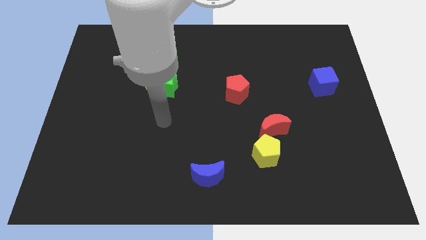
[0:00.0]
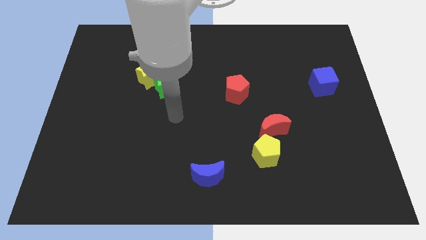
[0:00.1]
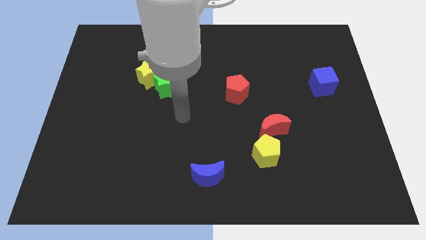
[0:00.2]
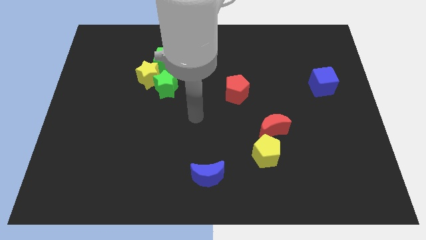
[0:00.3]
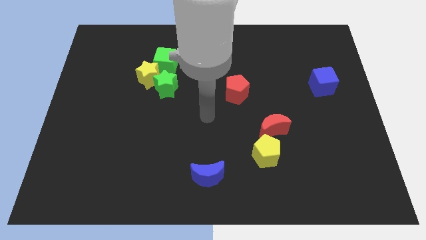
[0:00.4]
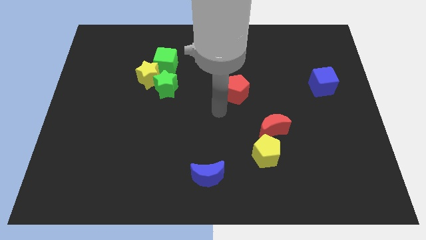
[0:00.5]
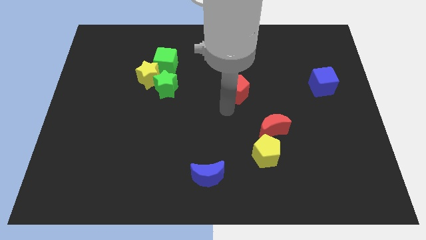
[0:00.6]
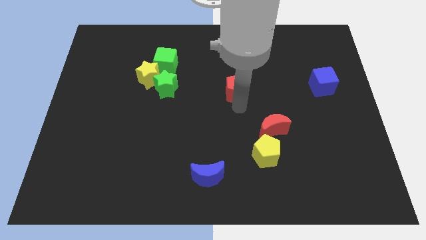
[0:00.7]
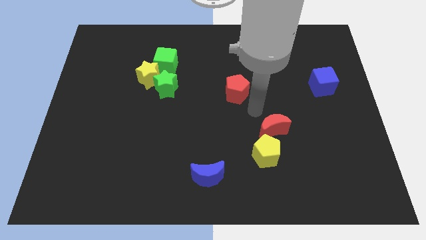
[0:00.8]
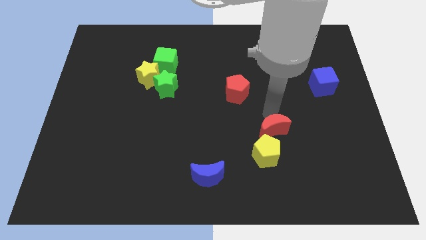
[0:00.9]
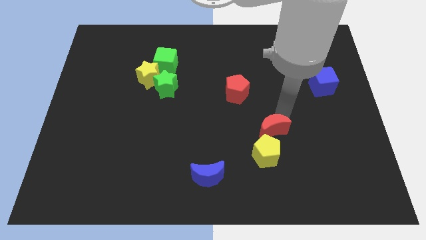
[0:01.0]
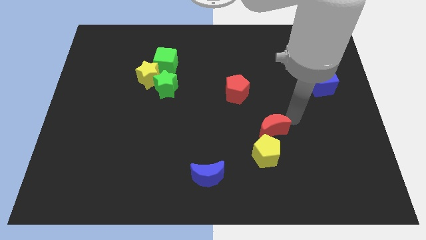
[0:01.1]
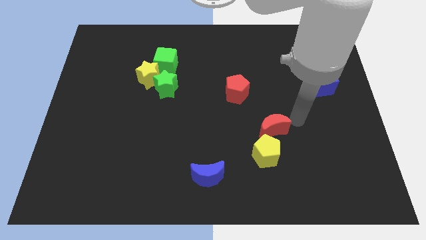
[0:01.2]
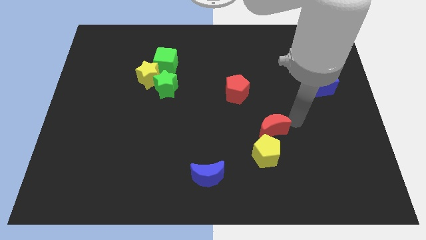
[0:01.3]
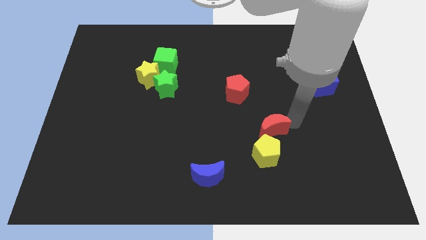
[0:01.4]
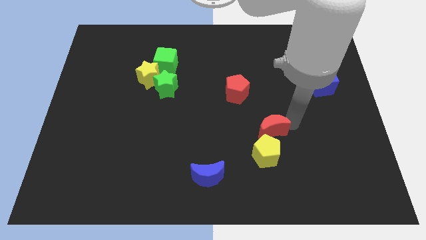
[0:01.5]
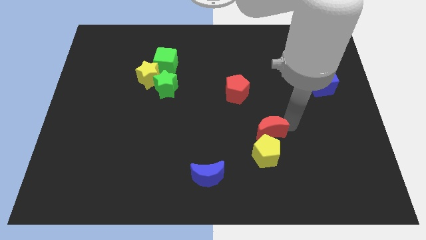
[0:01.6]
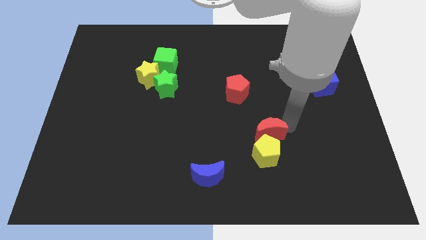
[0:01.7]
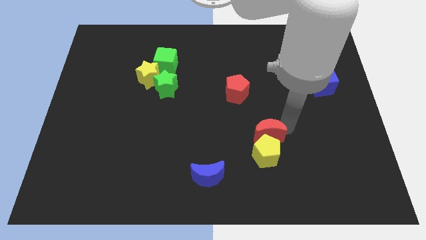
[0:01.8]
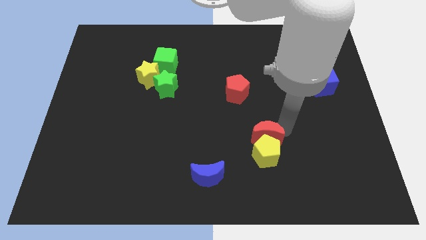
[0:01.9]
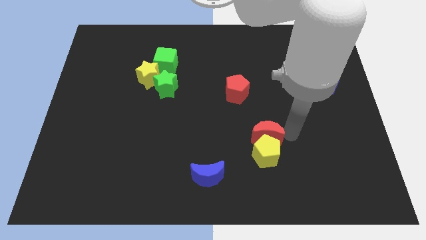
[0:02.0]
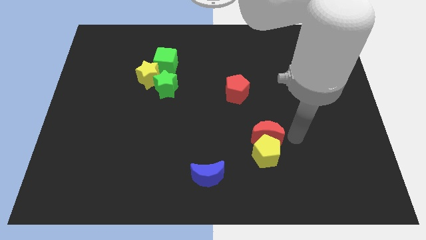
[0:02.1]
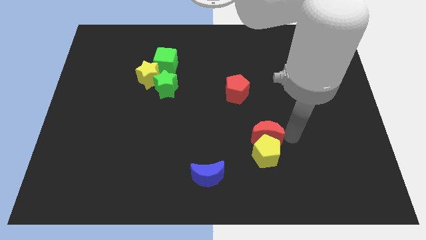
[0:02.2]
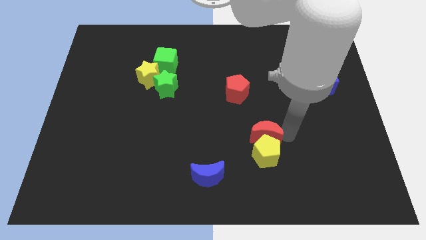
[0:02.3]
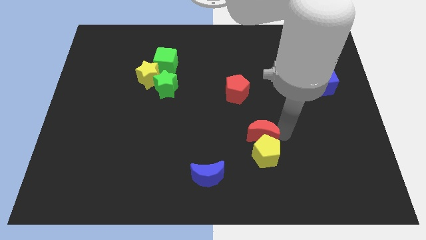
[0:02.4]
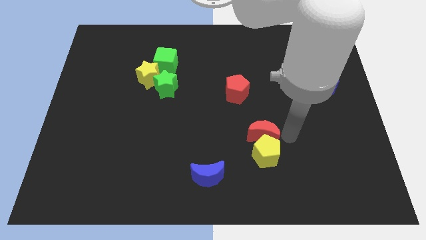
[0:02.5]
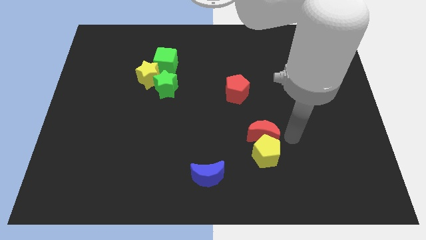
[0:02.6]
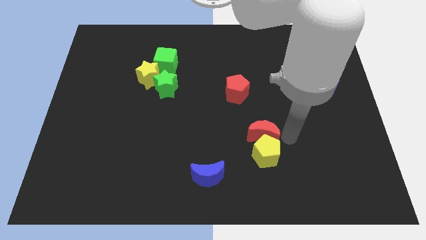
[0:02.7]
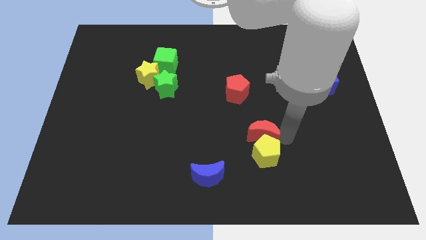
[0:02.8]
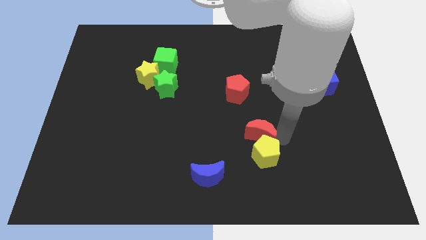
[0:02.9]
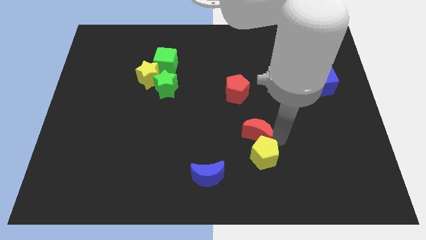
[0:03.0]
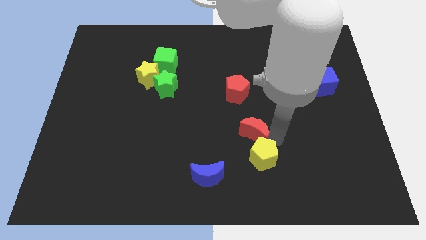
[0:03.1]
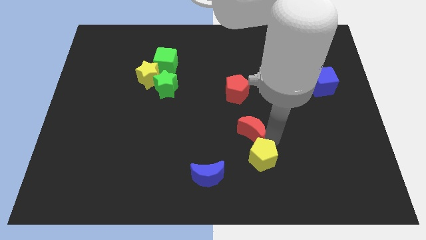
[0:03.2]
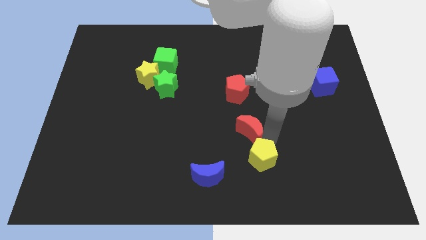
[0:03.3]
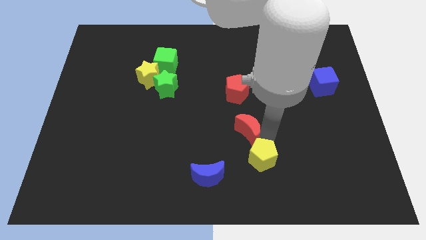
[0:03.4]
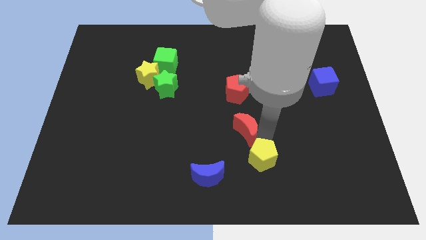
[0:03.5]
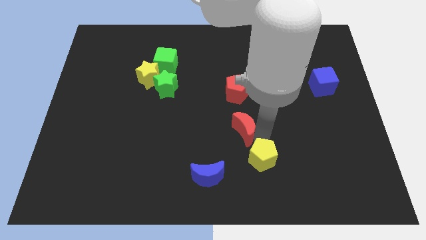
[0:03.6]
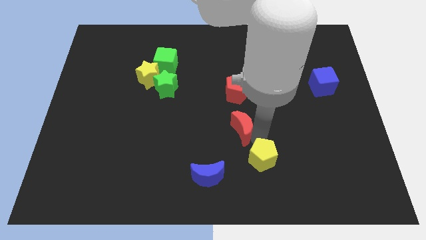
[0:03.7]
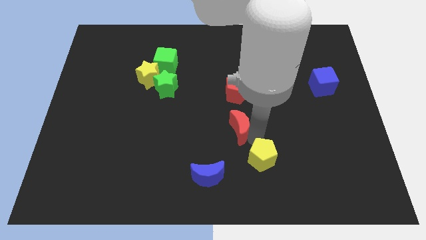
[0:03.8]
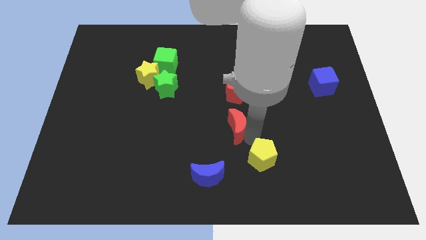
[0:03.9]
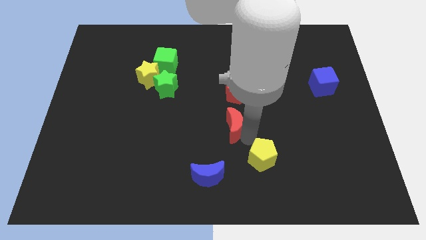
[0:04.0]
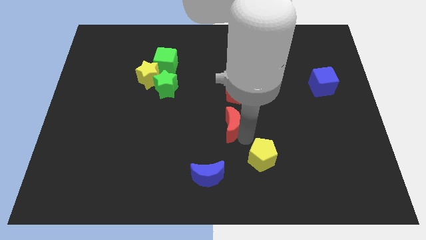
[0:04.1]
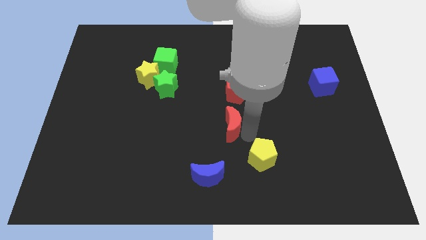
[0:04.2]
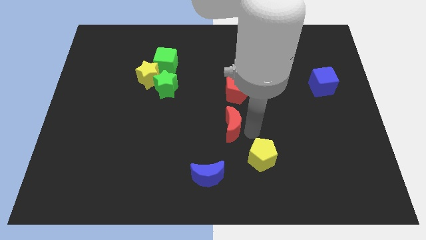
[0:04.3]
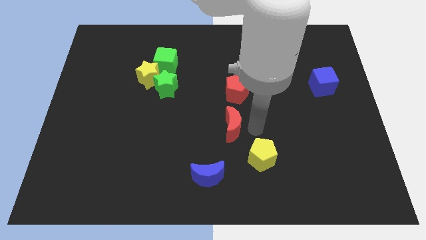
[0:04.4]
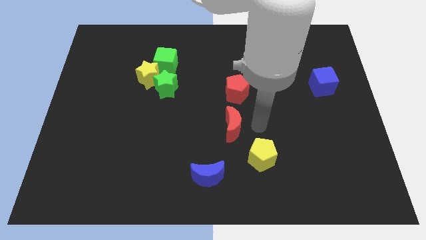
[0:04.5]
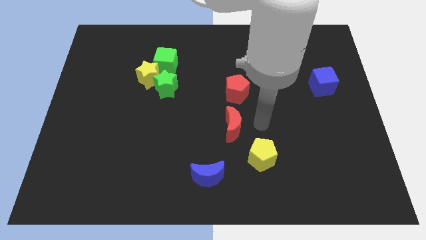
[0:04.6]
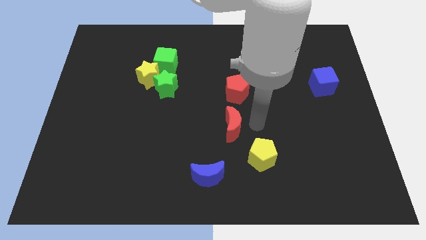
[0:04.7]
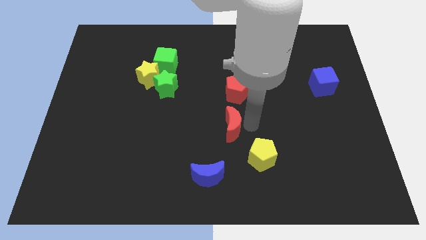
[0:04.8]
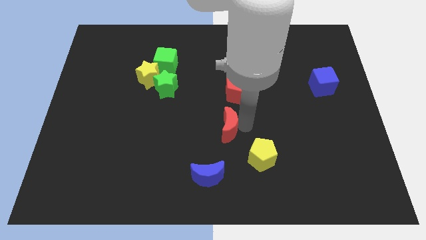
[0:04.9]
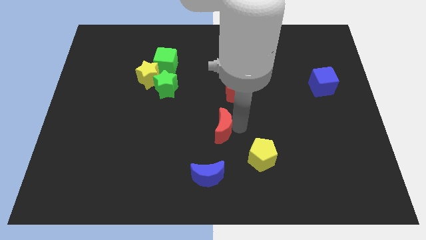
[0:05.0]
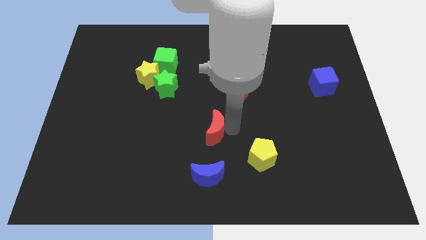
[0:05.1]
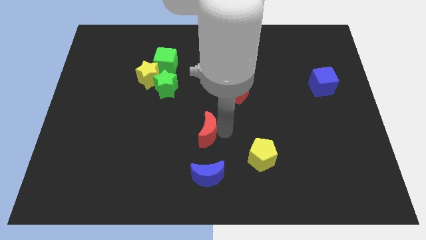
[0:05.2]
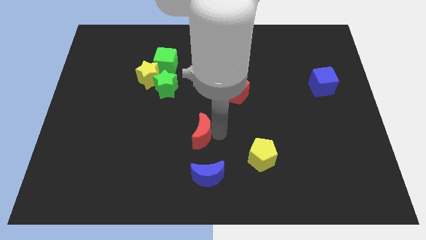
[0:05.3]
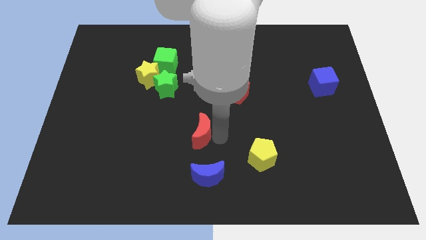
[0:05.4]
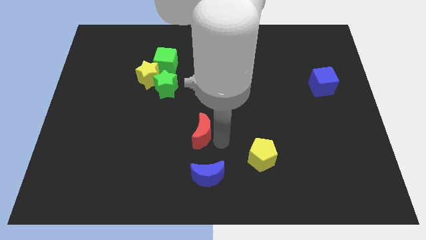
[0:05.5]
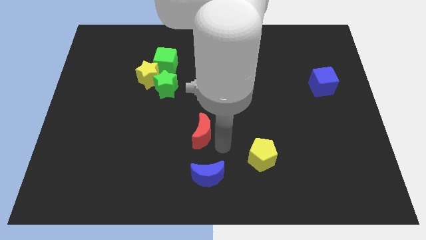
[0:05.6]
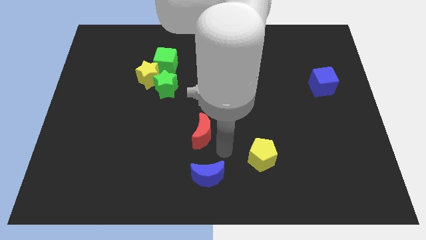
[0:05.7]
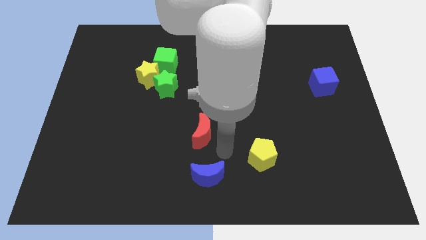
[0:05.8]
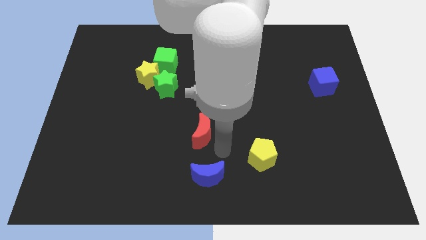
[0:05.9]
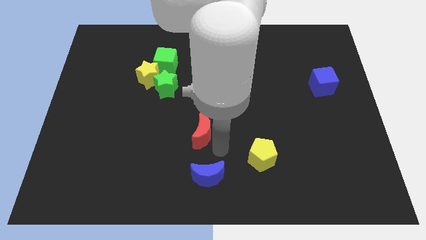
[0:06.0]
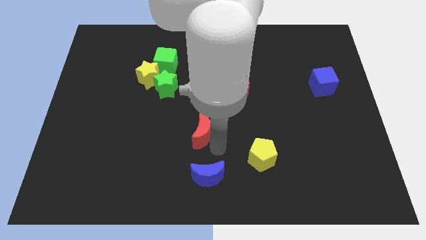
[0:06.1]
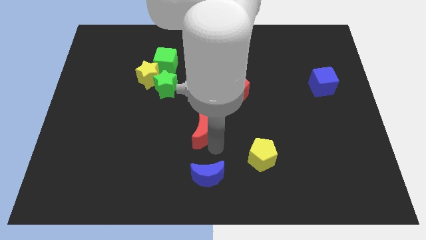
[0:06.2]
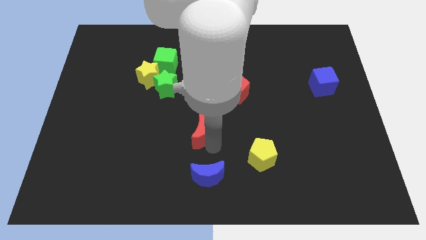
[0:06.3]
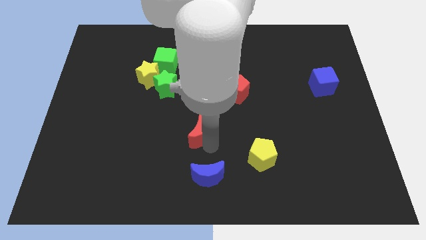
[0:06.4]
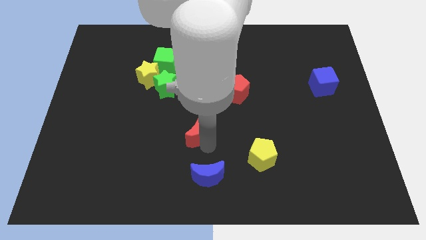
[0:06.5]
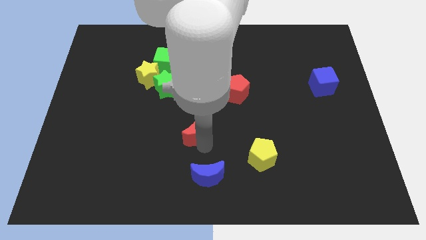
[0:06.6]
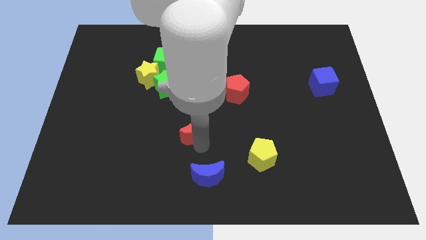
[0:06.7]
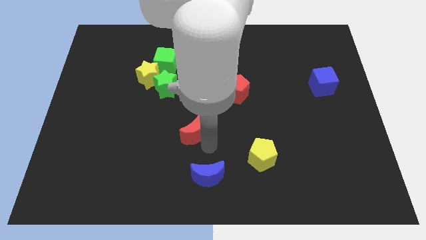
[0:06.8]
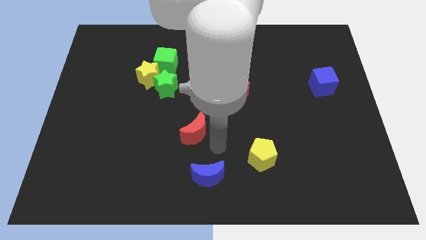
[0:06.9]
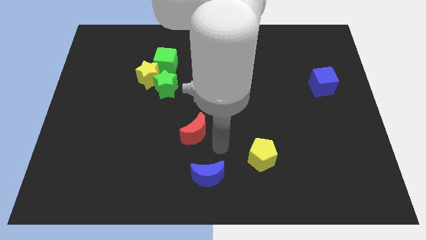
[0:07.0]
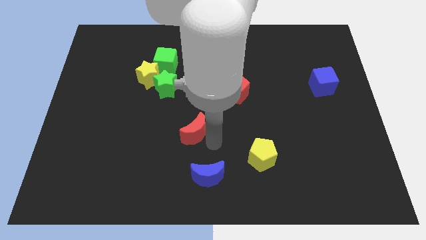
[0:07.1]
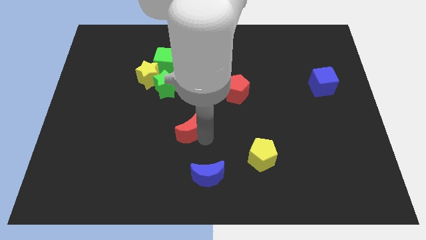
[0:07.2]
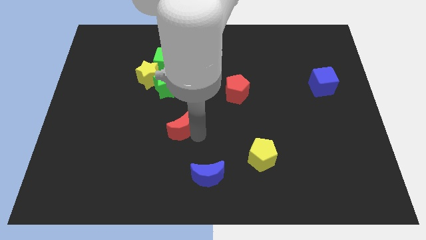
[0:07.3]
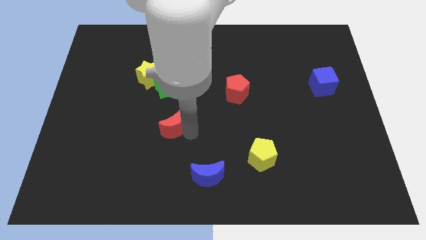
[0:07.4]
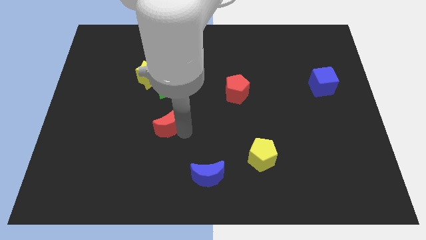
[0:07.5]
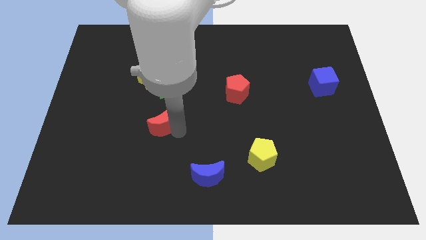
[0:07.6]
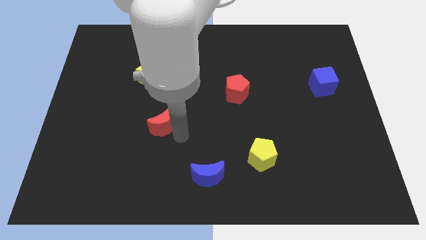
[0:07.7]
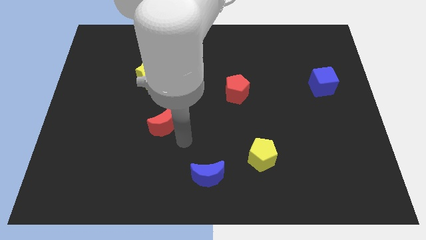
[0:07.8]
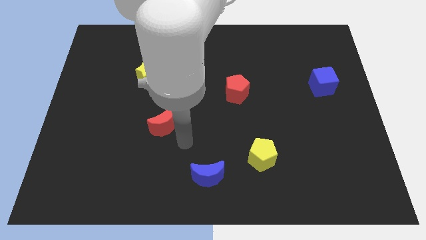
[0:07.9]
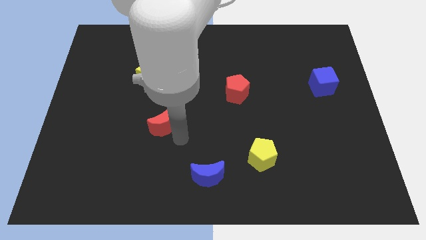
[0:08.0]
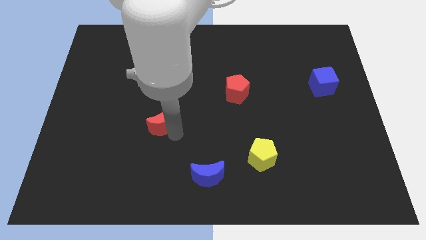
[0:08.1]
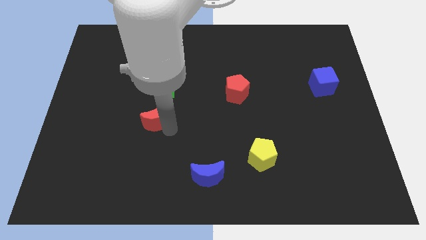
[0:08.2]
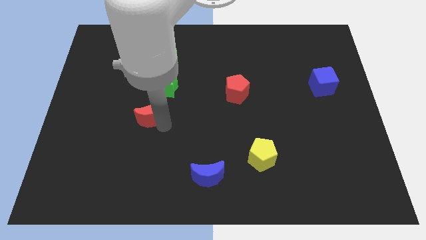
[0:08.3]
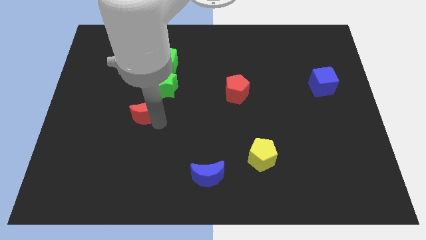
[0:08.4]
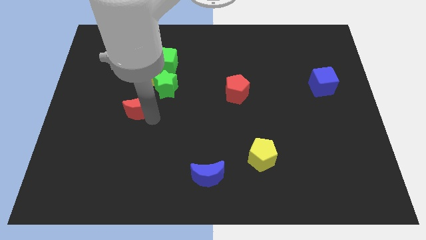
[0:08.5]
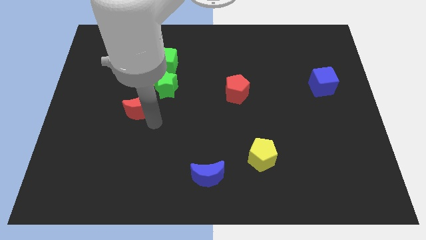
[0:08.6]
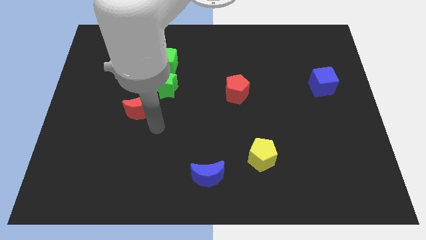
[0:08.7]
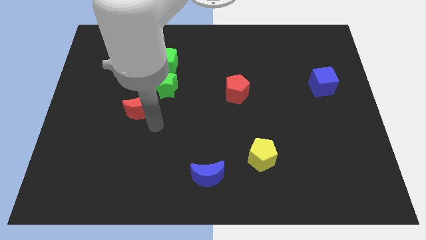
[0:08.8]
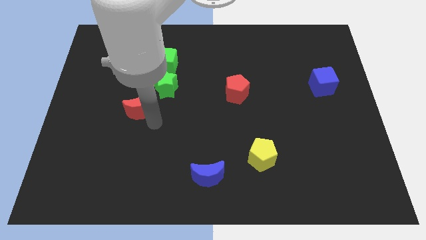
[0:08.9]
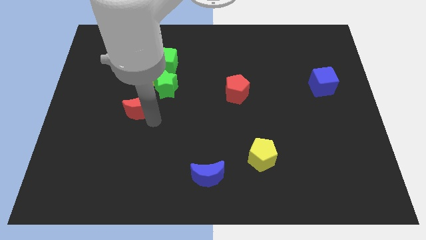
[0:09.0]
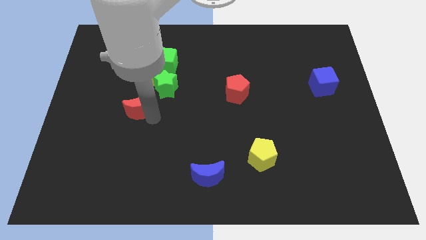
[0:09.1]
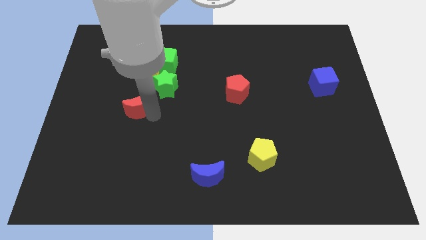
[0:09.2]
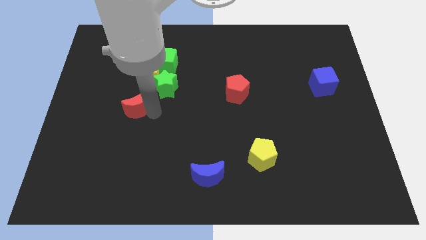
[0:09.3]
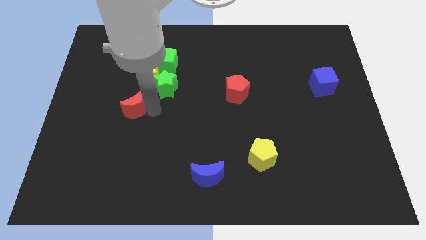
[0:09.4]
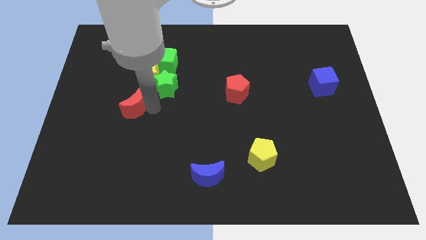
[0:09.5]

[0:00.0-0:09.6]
put the red moon to the bottom left of the yellow star
